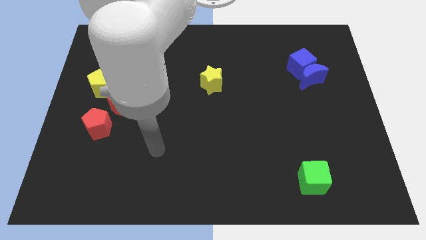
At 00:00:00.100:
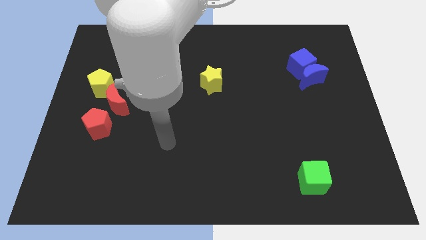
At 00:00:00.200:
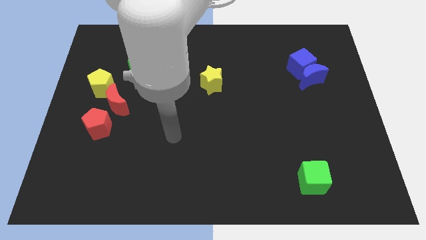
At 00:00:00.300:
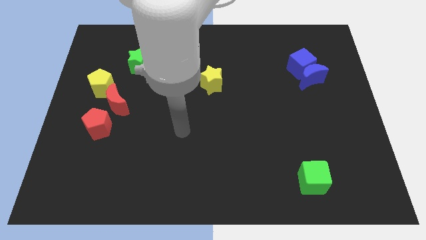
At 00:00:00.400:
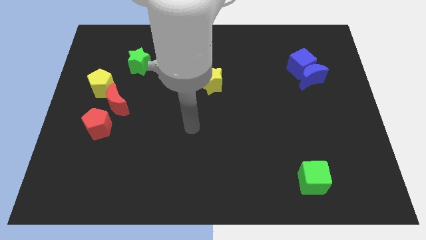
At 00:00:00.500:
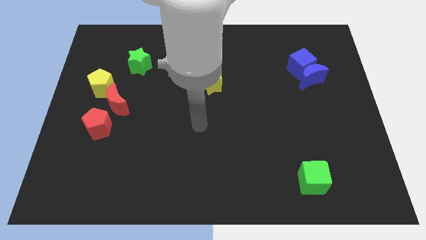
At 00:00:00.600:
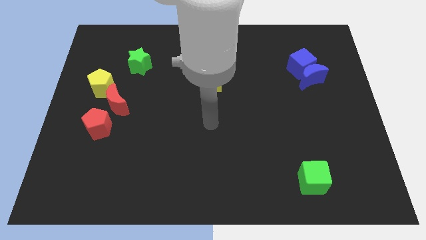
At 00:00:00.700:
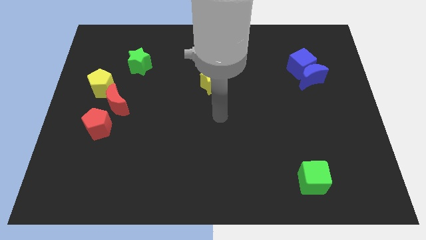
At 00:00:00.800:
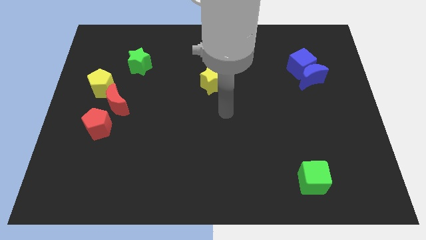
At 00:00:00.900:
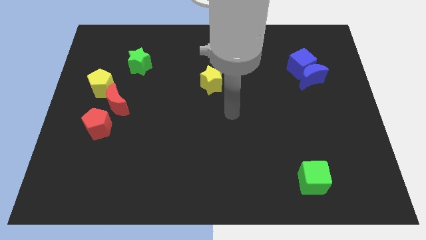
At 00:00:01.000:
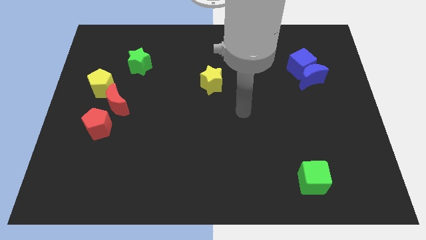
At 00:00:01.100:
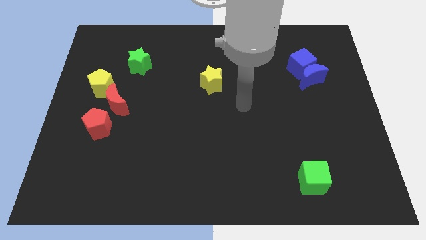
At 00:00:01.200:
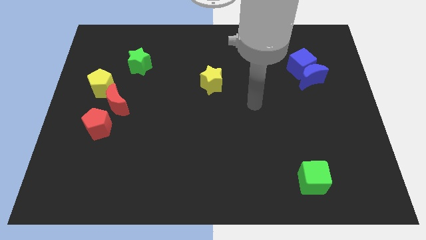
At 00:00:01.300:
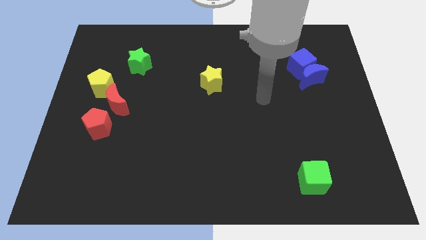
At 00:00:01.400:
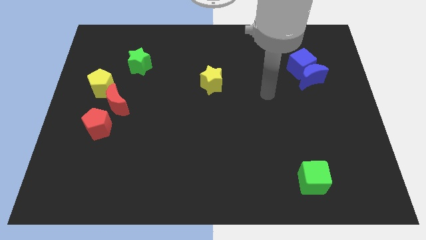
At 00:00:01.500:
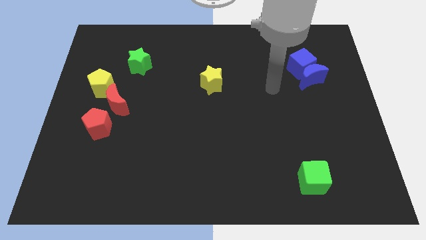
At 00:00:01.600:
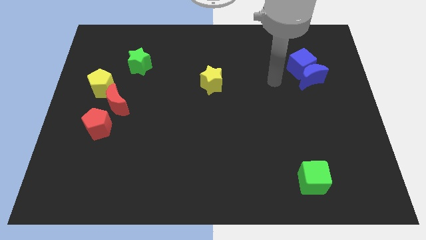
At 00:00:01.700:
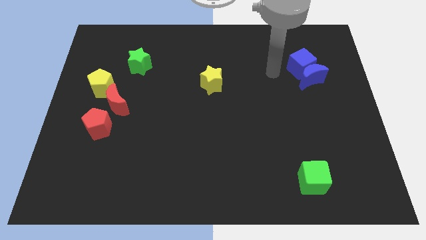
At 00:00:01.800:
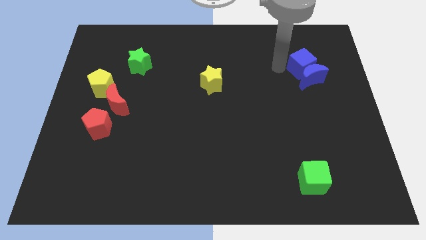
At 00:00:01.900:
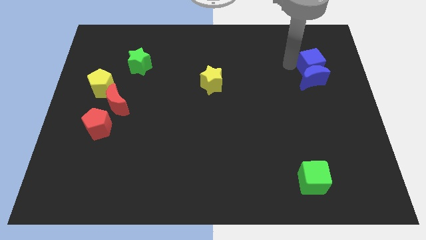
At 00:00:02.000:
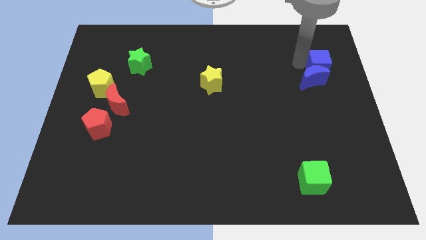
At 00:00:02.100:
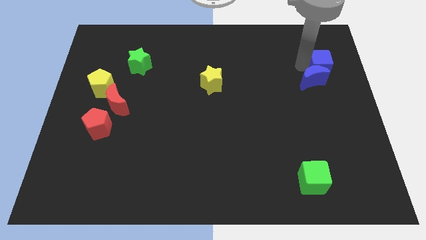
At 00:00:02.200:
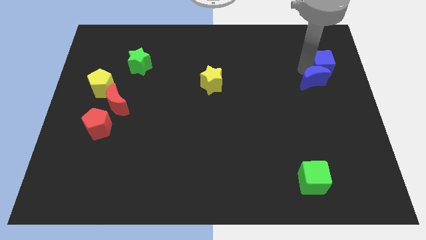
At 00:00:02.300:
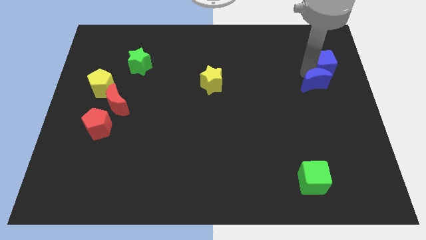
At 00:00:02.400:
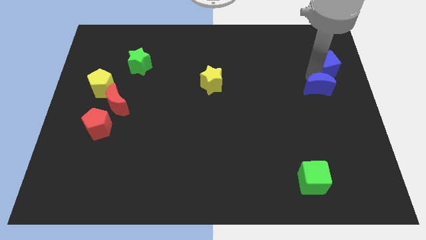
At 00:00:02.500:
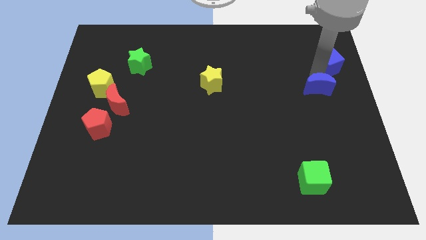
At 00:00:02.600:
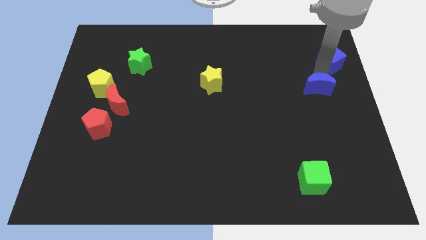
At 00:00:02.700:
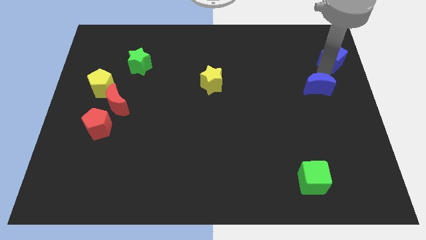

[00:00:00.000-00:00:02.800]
pull the blue moon apart from the blue cube

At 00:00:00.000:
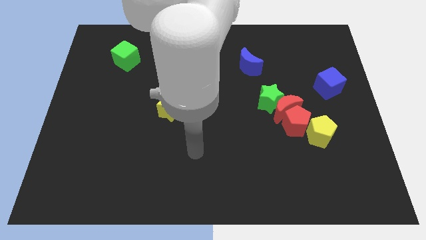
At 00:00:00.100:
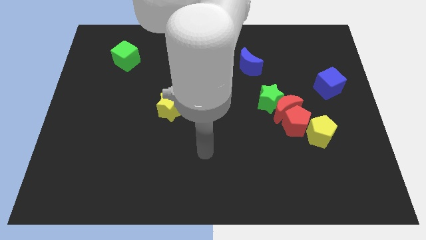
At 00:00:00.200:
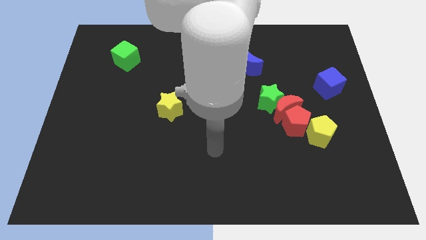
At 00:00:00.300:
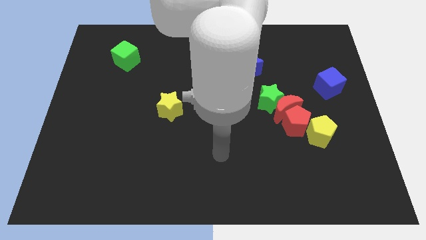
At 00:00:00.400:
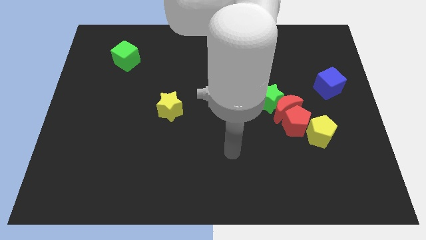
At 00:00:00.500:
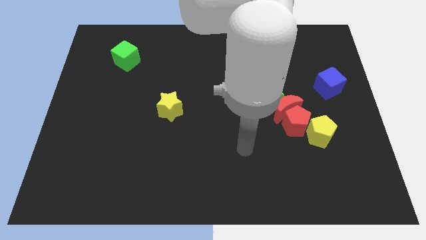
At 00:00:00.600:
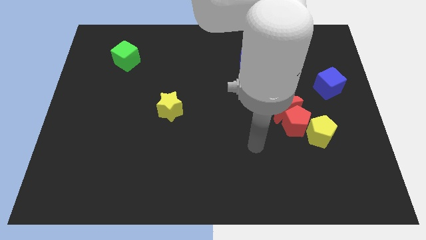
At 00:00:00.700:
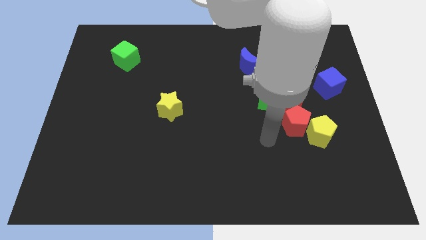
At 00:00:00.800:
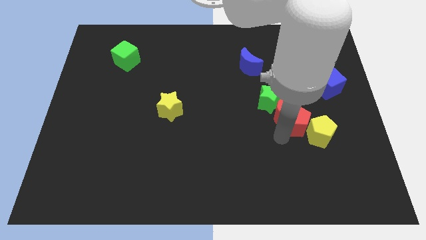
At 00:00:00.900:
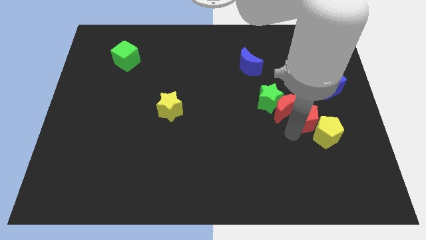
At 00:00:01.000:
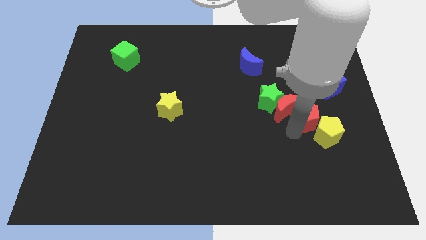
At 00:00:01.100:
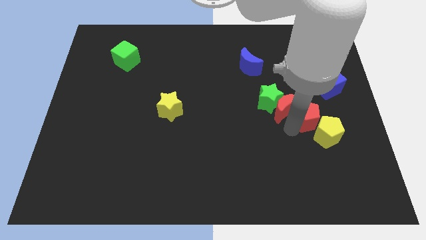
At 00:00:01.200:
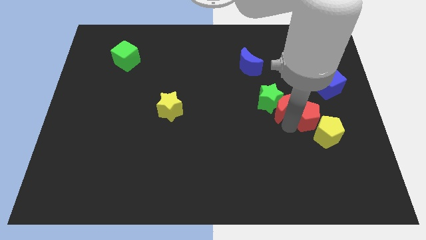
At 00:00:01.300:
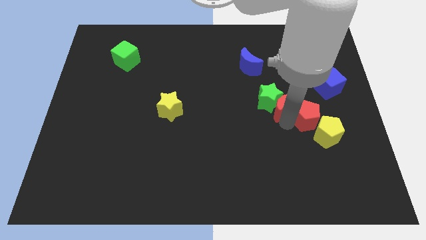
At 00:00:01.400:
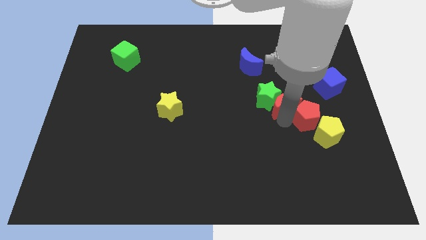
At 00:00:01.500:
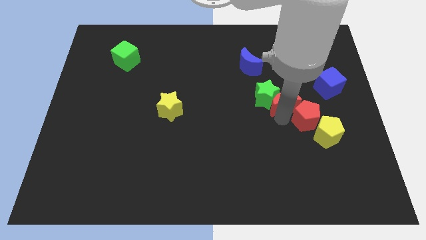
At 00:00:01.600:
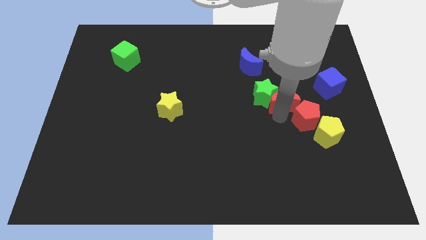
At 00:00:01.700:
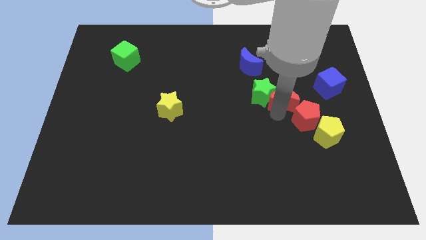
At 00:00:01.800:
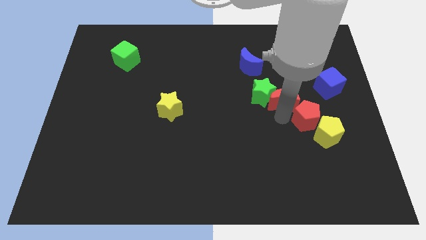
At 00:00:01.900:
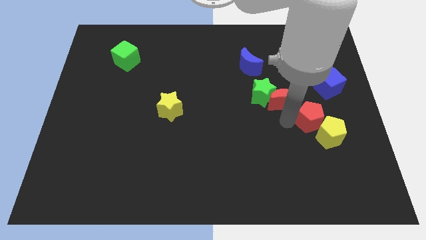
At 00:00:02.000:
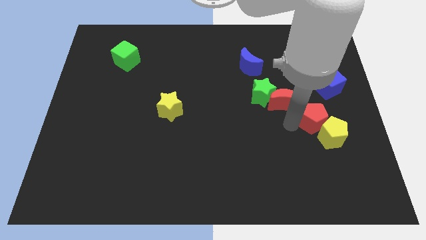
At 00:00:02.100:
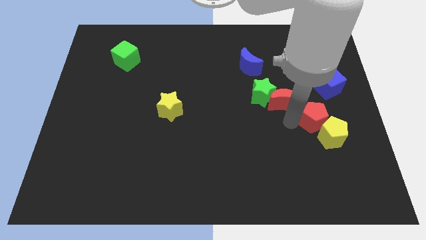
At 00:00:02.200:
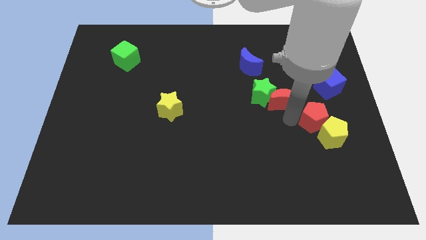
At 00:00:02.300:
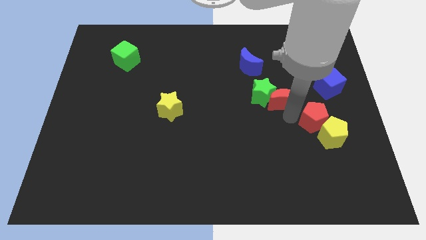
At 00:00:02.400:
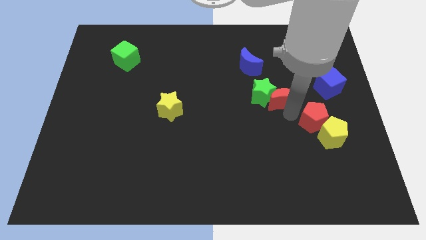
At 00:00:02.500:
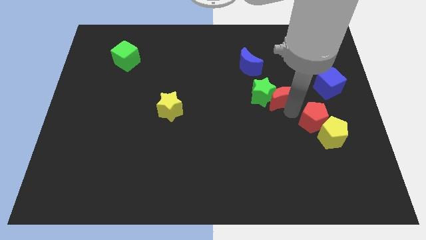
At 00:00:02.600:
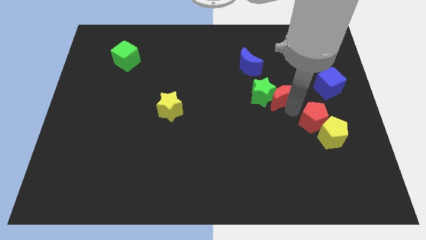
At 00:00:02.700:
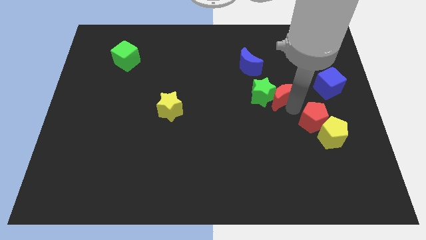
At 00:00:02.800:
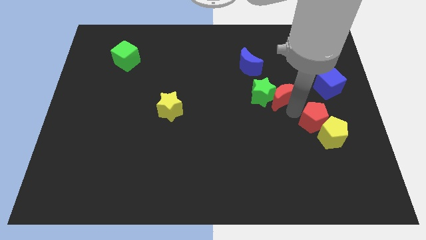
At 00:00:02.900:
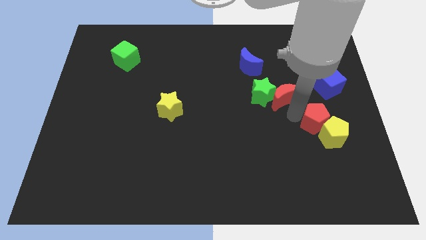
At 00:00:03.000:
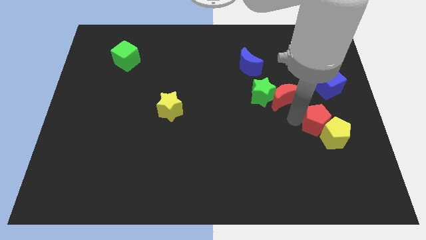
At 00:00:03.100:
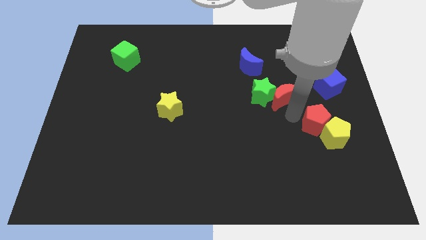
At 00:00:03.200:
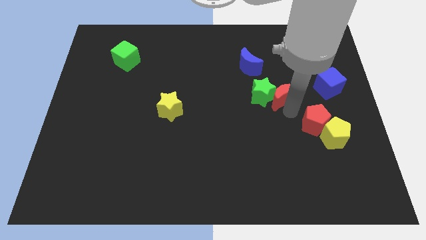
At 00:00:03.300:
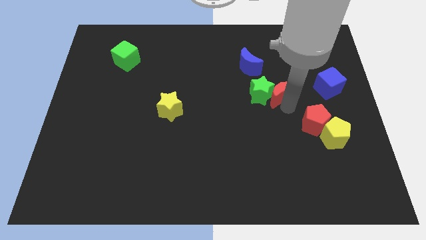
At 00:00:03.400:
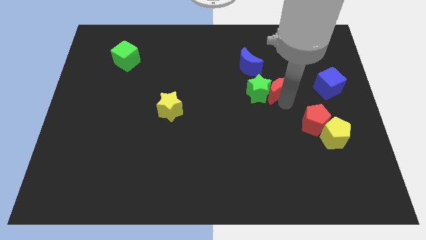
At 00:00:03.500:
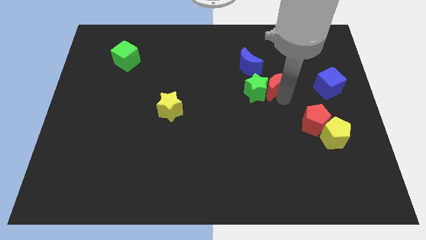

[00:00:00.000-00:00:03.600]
pull the red moon apart from the green star, red pentagon, and yellow pentagon

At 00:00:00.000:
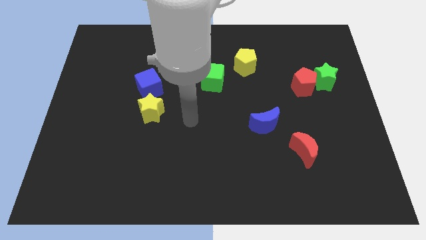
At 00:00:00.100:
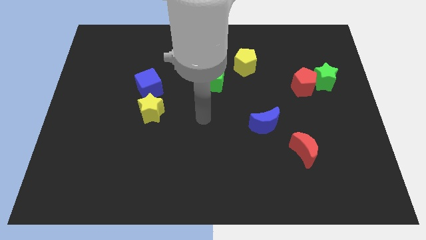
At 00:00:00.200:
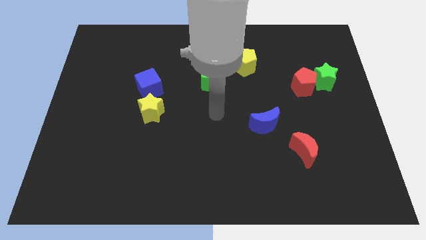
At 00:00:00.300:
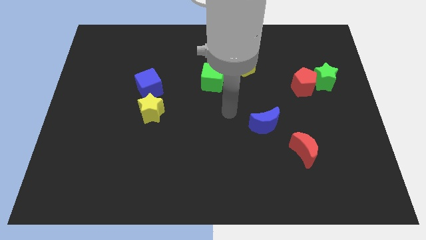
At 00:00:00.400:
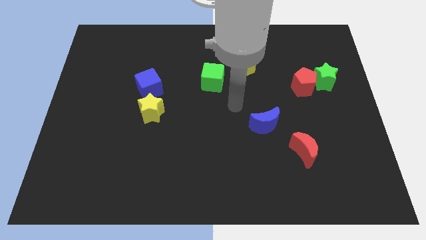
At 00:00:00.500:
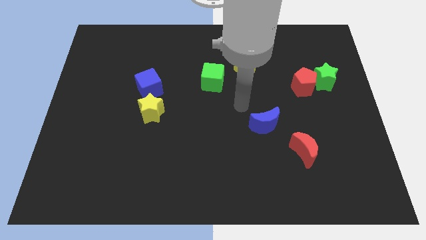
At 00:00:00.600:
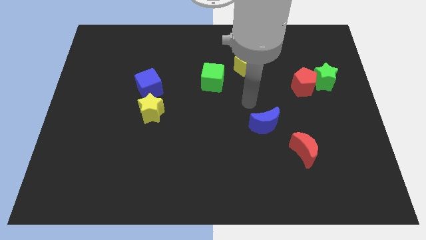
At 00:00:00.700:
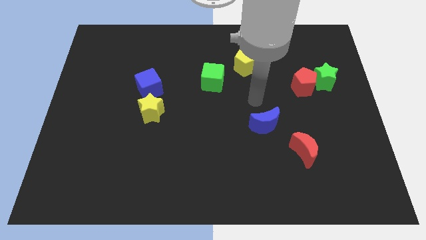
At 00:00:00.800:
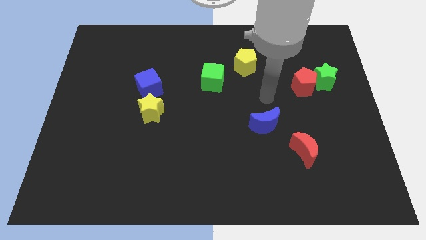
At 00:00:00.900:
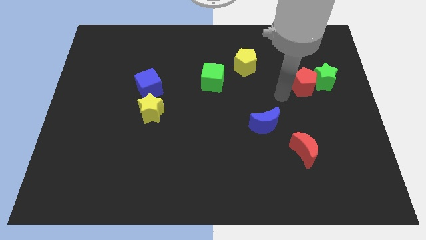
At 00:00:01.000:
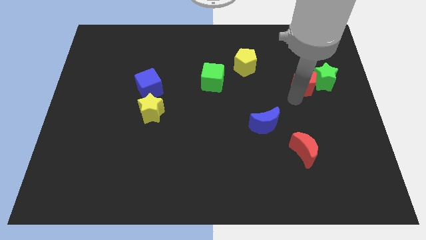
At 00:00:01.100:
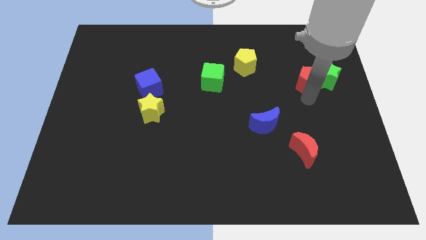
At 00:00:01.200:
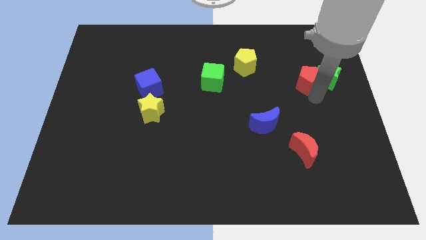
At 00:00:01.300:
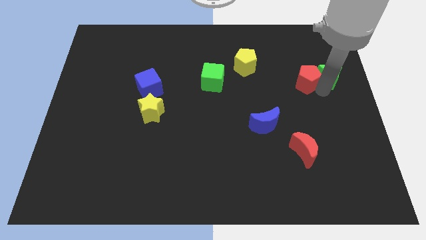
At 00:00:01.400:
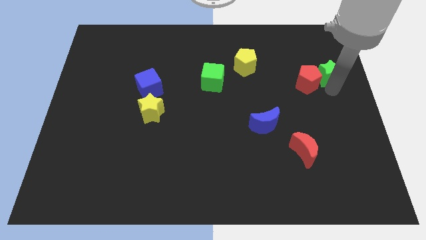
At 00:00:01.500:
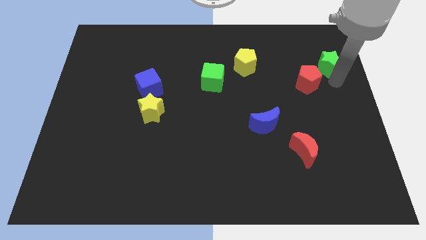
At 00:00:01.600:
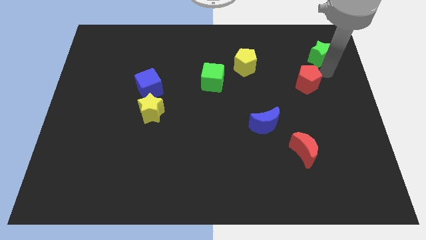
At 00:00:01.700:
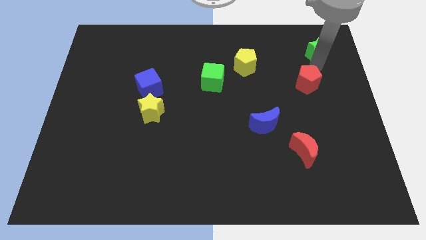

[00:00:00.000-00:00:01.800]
pull the red pentagon apart from the green star

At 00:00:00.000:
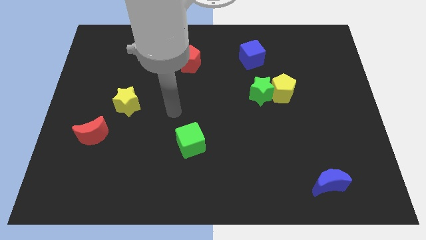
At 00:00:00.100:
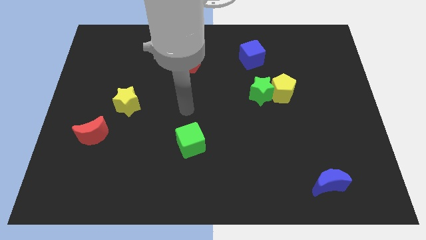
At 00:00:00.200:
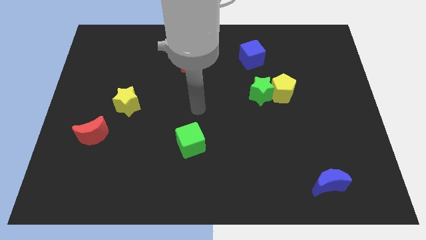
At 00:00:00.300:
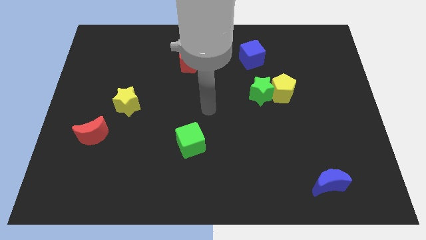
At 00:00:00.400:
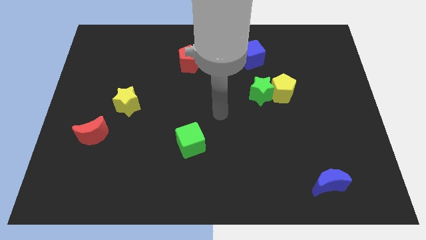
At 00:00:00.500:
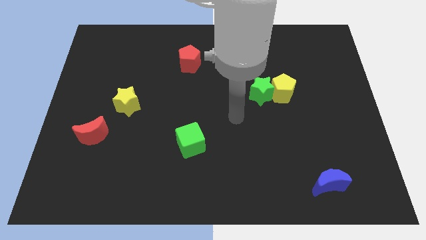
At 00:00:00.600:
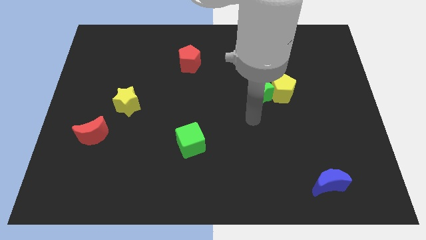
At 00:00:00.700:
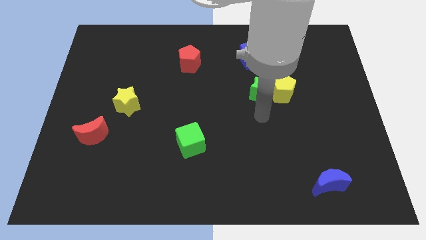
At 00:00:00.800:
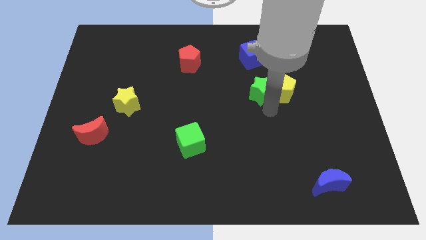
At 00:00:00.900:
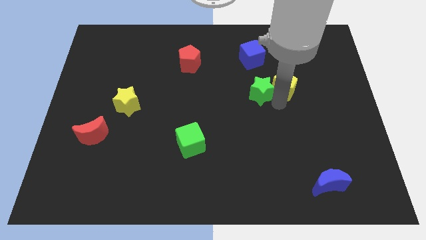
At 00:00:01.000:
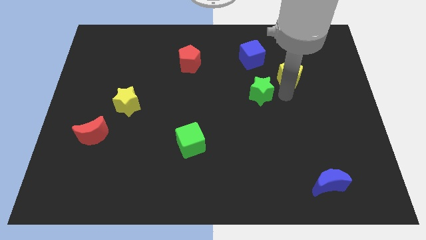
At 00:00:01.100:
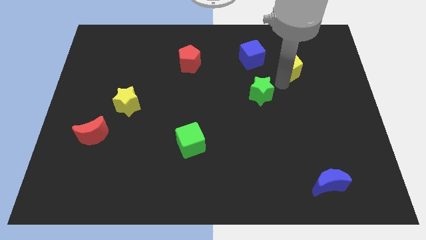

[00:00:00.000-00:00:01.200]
pull the green star apart from the yellow pentagon
